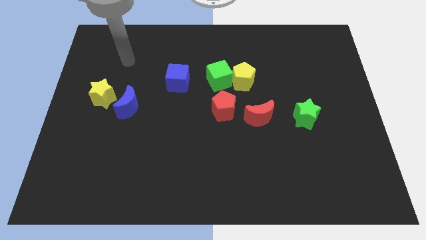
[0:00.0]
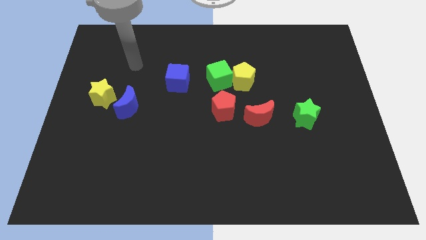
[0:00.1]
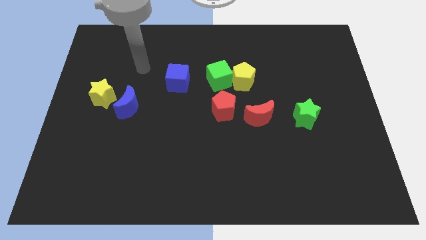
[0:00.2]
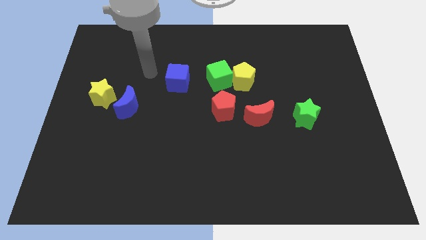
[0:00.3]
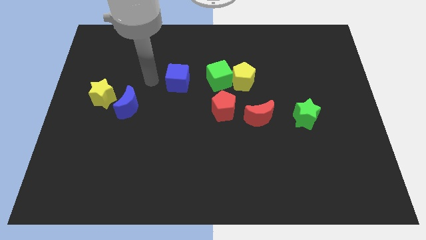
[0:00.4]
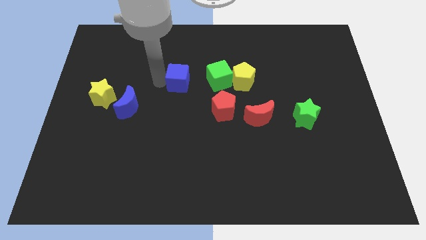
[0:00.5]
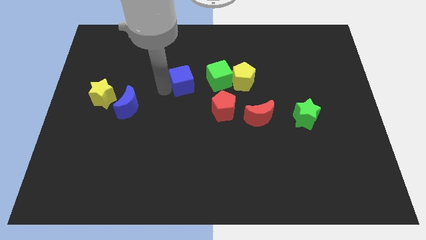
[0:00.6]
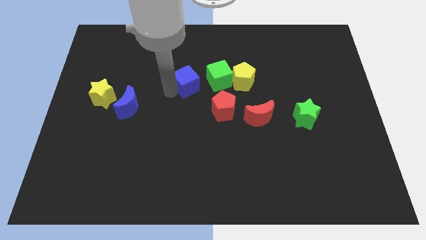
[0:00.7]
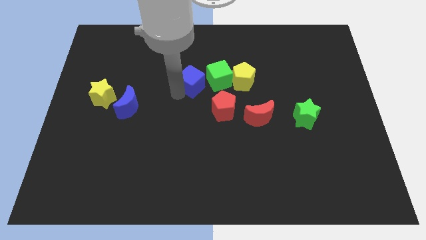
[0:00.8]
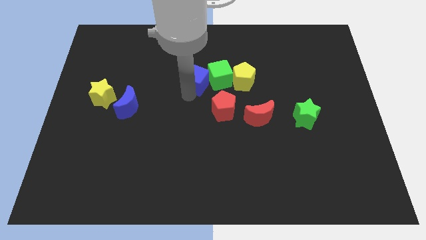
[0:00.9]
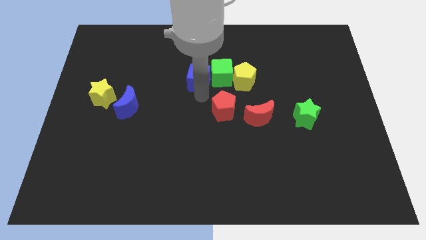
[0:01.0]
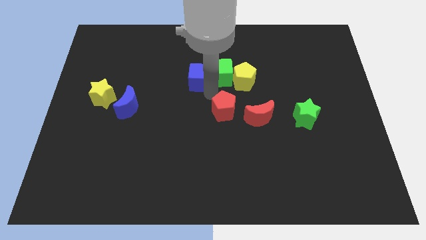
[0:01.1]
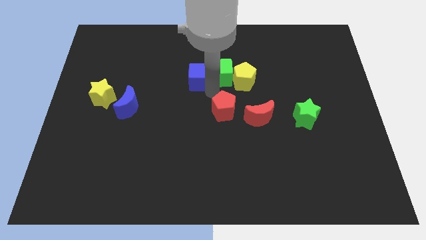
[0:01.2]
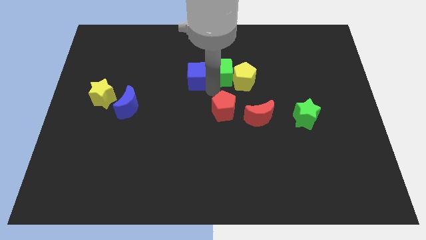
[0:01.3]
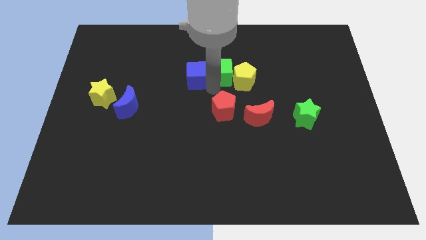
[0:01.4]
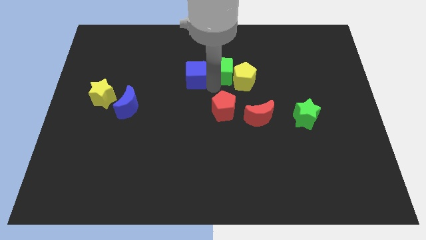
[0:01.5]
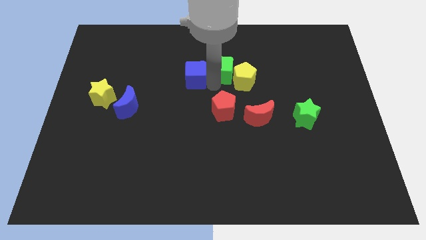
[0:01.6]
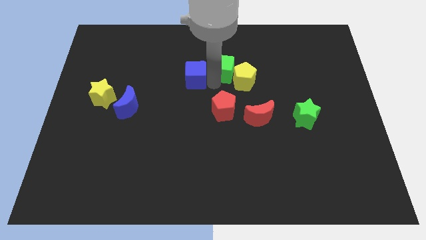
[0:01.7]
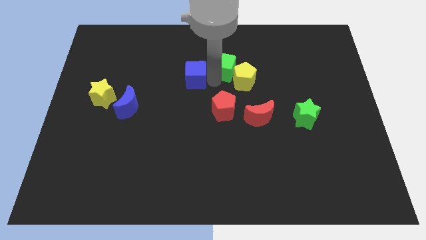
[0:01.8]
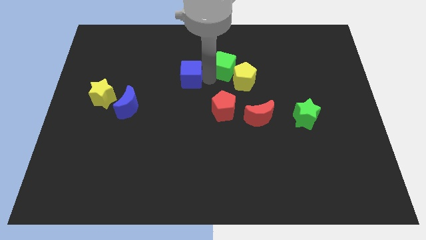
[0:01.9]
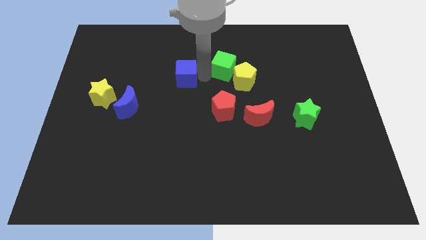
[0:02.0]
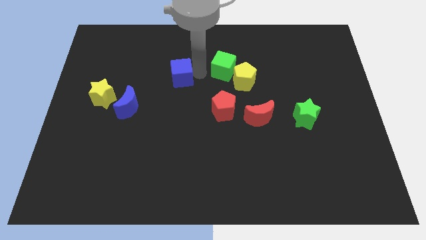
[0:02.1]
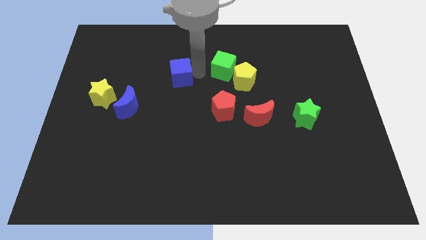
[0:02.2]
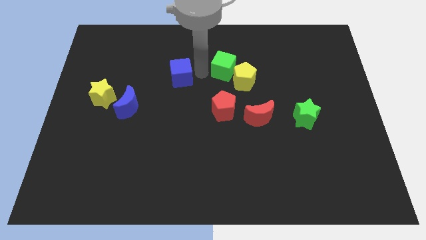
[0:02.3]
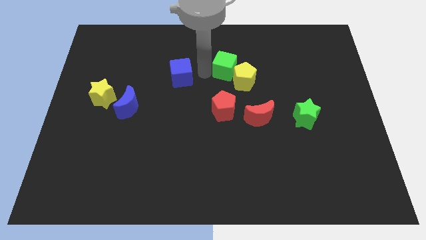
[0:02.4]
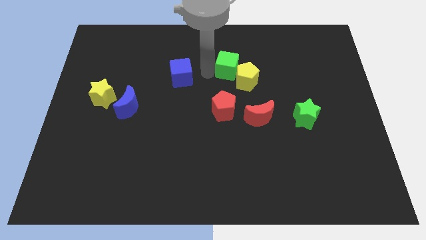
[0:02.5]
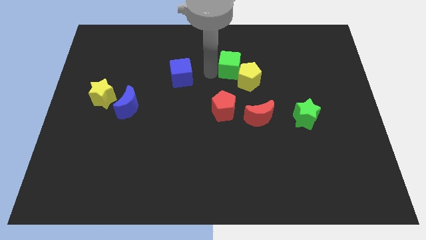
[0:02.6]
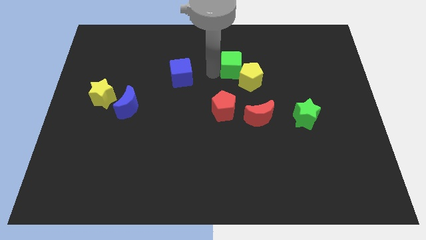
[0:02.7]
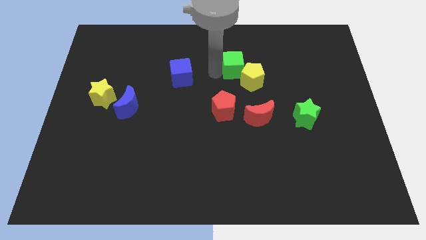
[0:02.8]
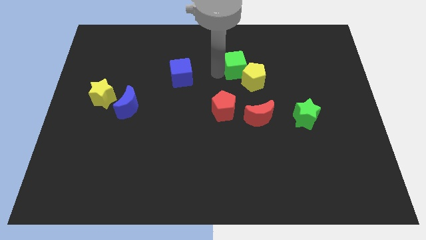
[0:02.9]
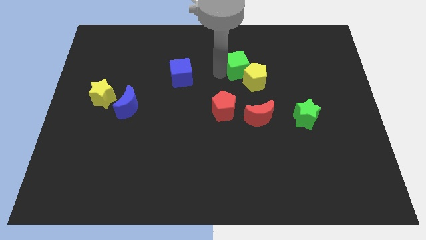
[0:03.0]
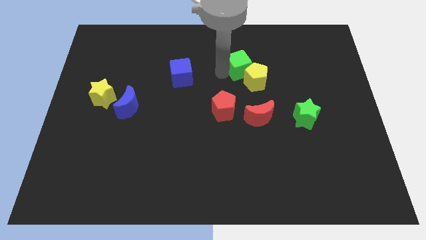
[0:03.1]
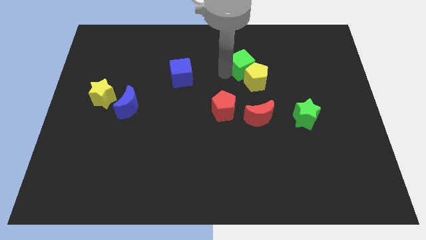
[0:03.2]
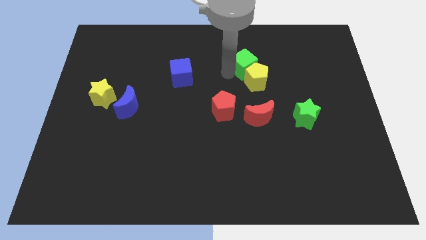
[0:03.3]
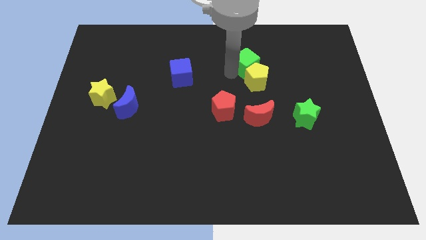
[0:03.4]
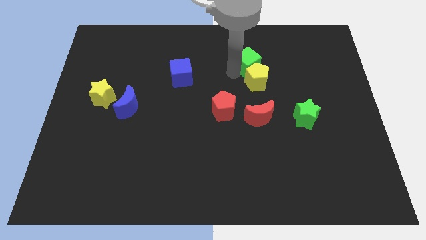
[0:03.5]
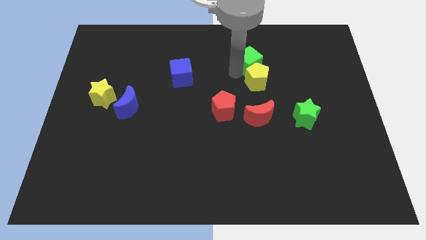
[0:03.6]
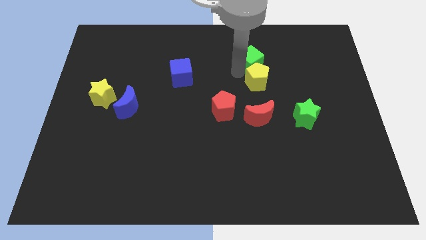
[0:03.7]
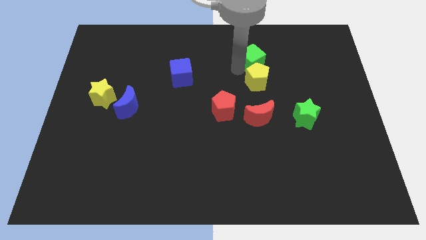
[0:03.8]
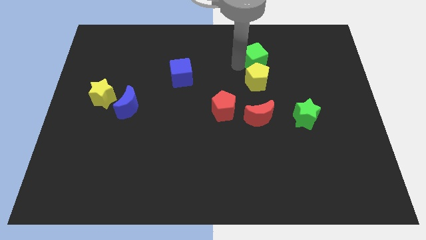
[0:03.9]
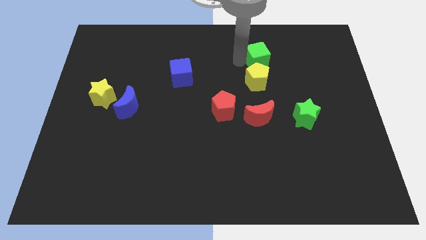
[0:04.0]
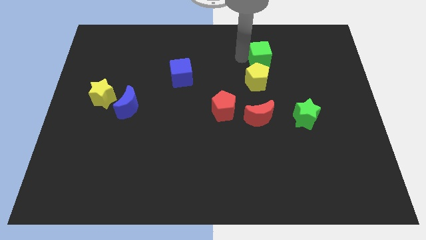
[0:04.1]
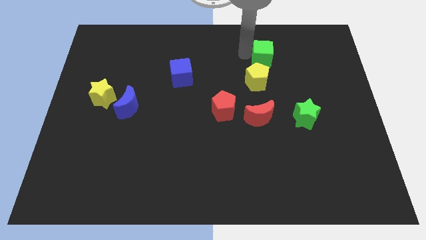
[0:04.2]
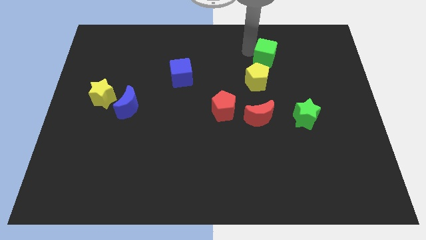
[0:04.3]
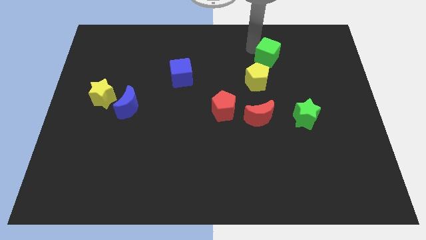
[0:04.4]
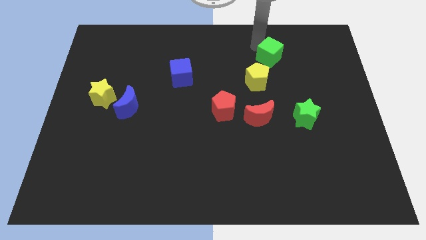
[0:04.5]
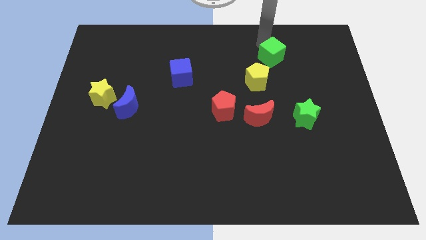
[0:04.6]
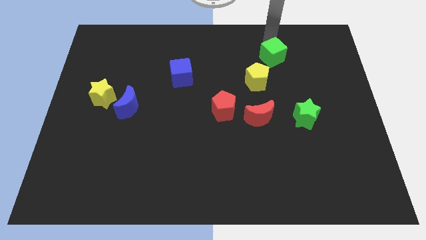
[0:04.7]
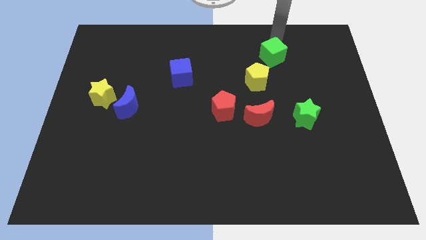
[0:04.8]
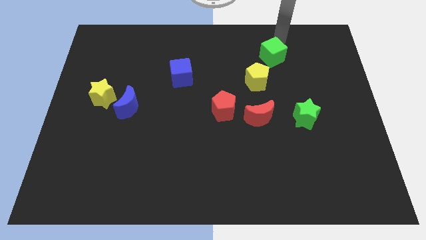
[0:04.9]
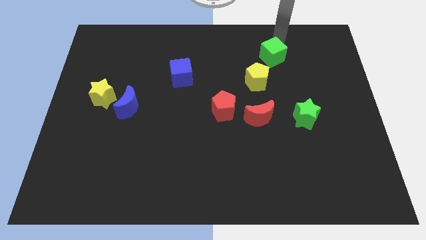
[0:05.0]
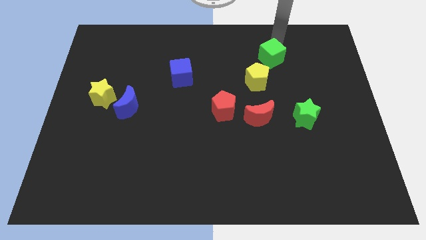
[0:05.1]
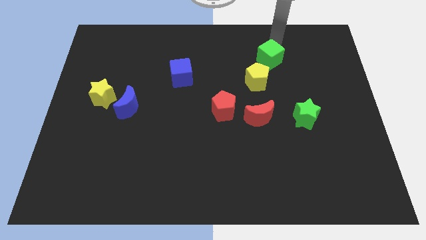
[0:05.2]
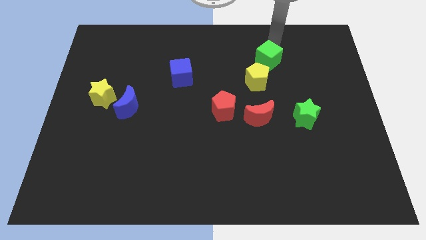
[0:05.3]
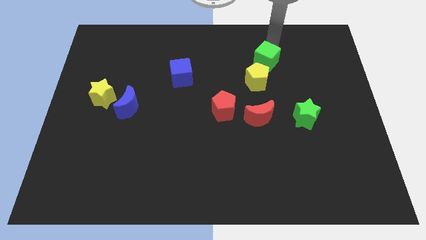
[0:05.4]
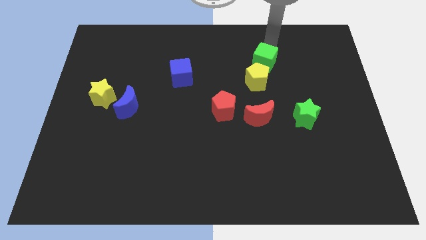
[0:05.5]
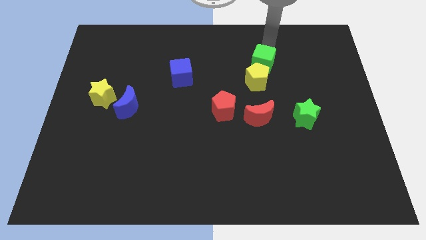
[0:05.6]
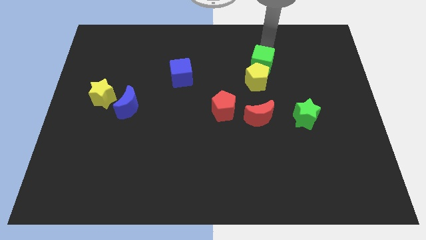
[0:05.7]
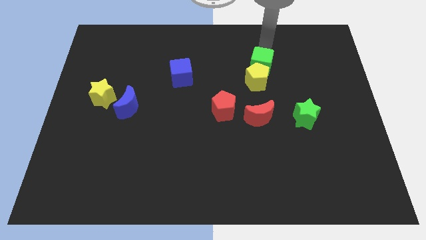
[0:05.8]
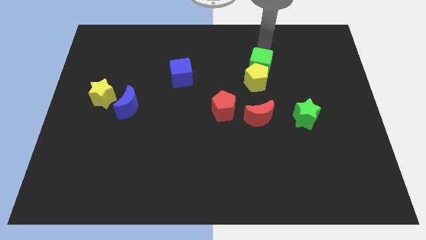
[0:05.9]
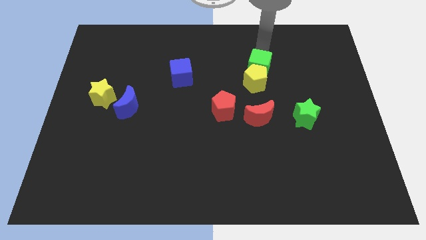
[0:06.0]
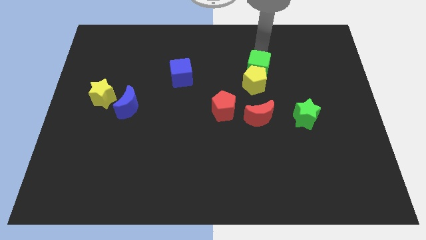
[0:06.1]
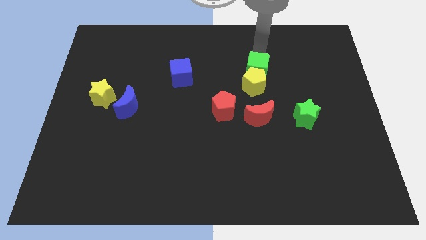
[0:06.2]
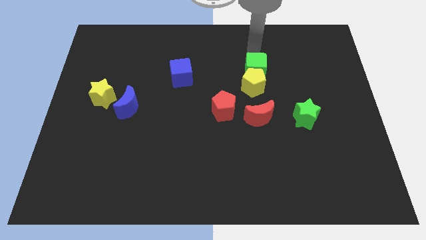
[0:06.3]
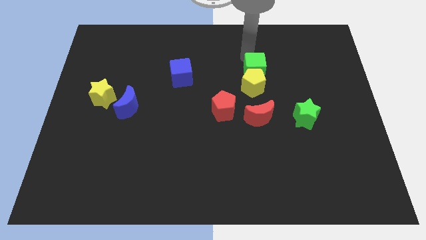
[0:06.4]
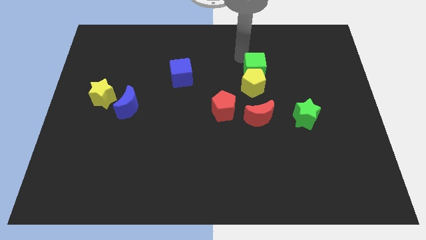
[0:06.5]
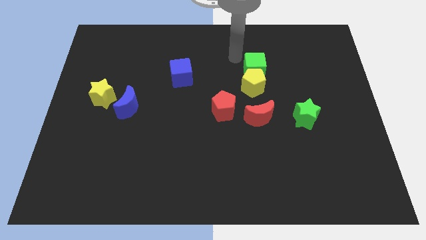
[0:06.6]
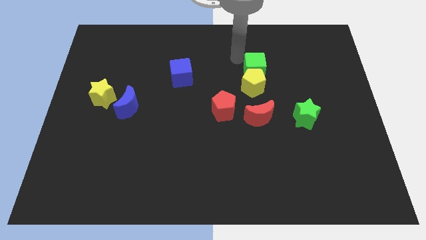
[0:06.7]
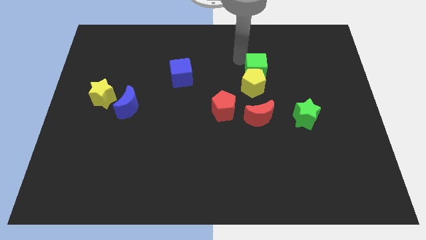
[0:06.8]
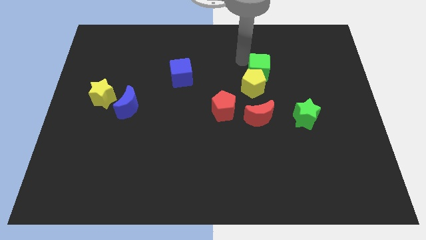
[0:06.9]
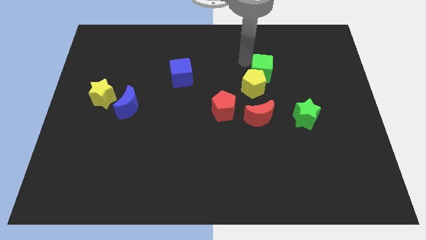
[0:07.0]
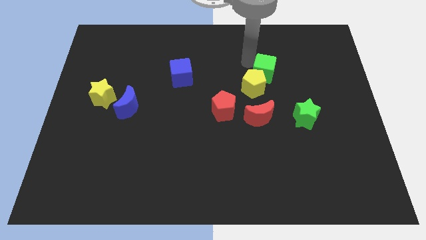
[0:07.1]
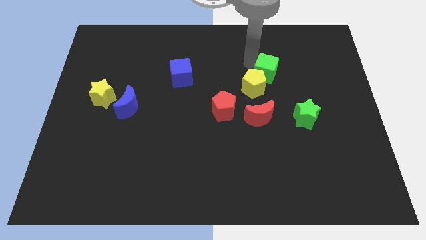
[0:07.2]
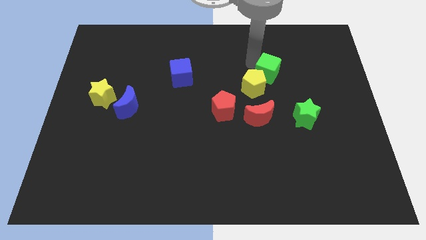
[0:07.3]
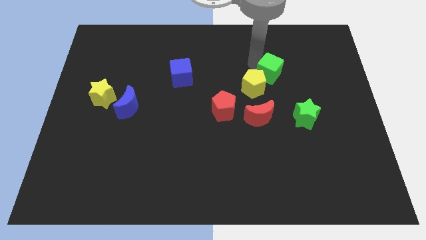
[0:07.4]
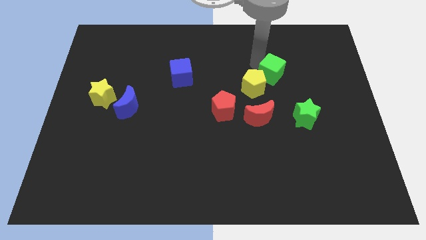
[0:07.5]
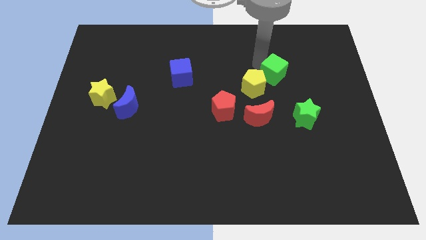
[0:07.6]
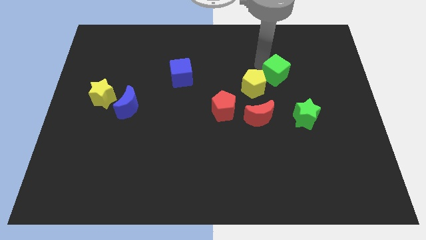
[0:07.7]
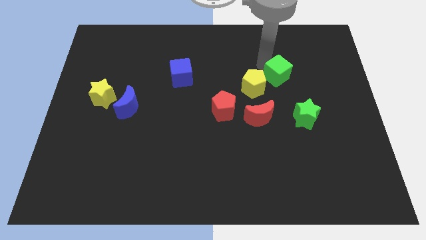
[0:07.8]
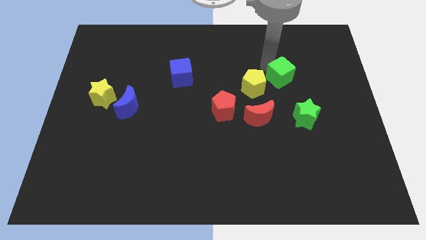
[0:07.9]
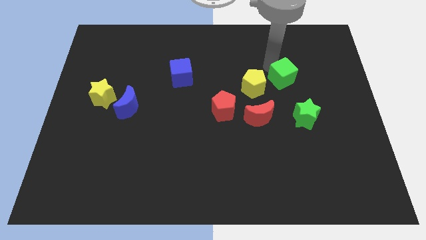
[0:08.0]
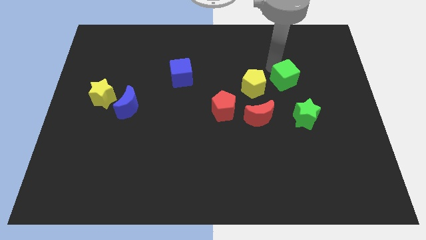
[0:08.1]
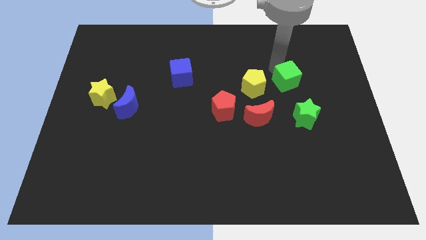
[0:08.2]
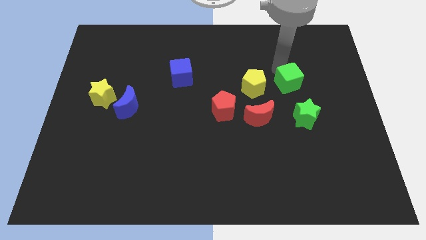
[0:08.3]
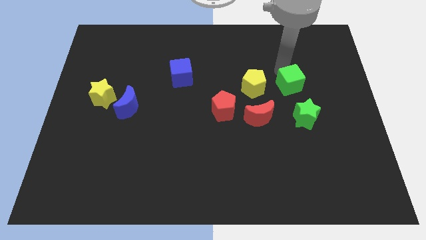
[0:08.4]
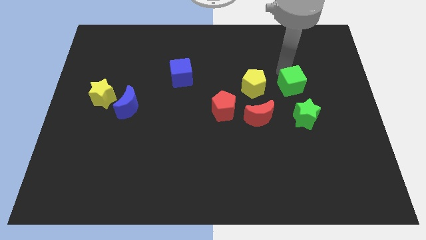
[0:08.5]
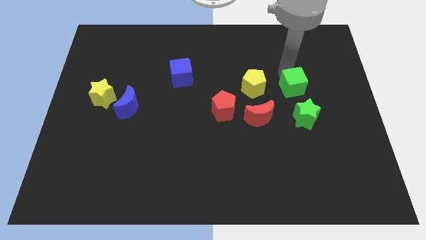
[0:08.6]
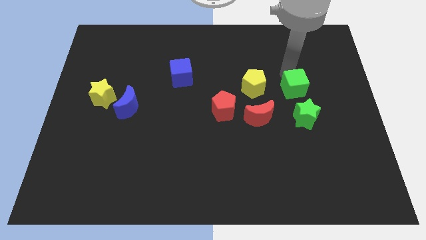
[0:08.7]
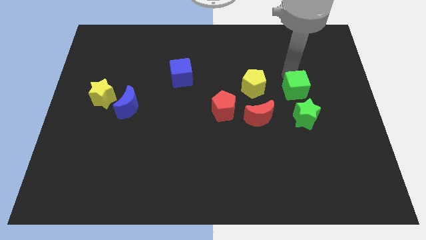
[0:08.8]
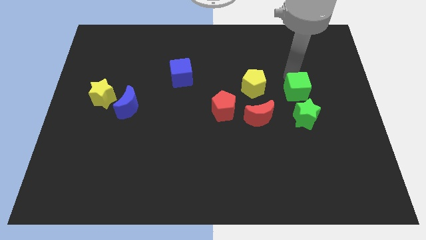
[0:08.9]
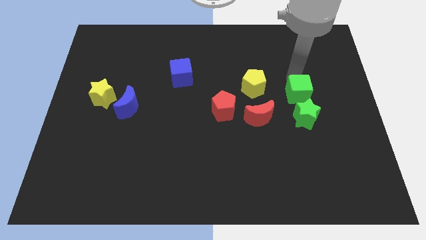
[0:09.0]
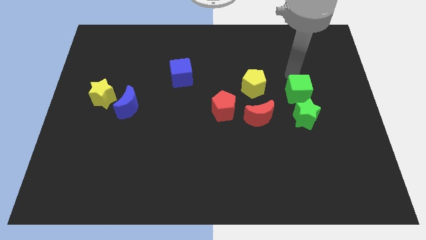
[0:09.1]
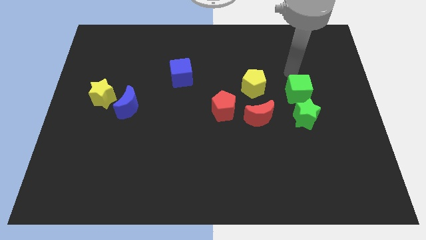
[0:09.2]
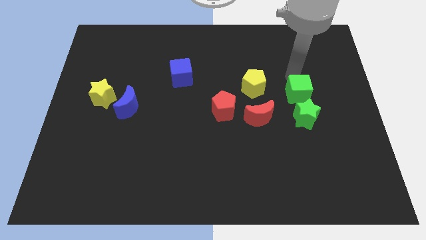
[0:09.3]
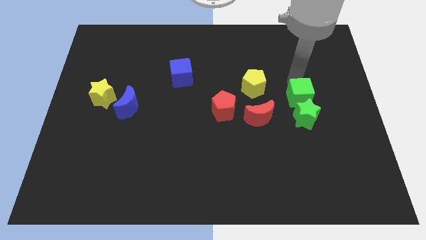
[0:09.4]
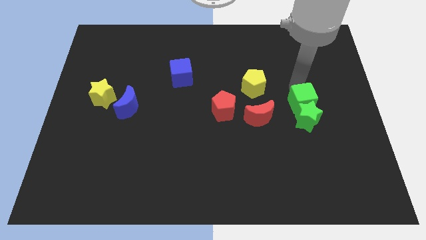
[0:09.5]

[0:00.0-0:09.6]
slide the green cube close to the green star
